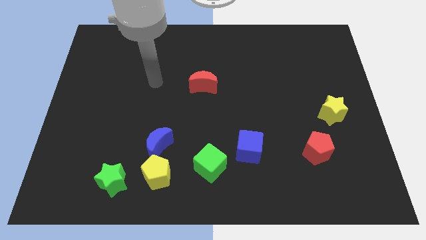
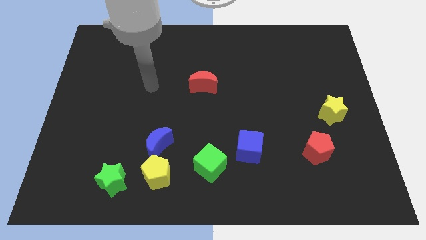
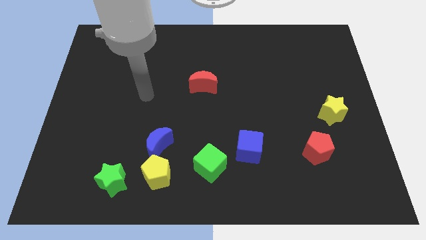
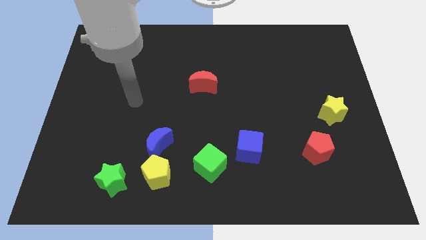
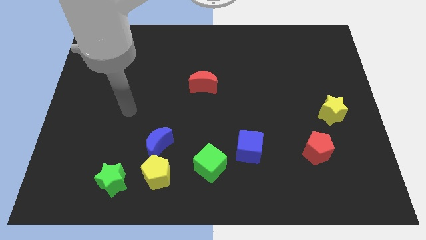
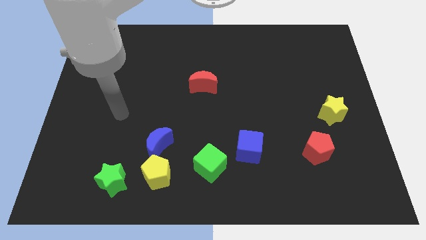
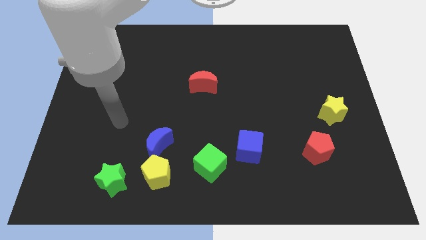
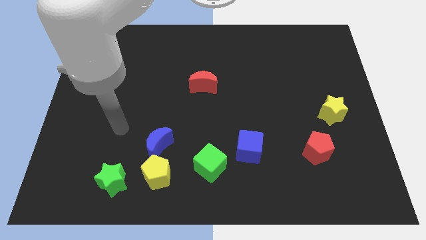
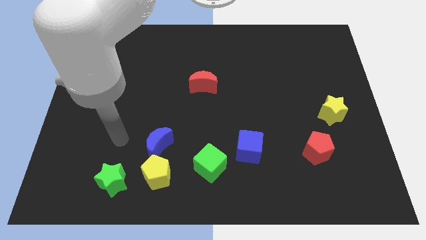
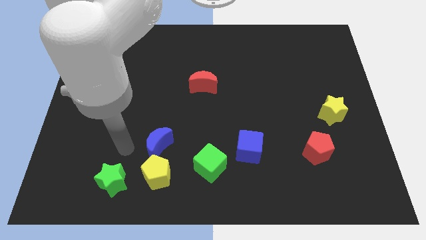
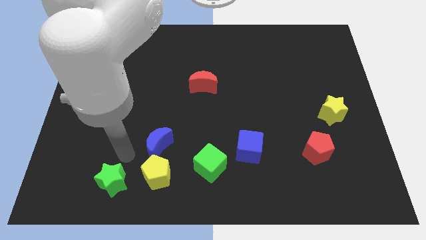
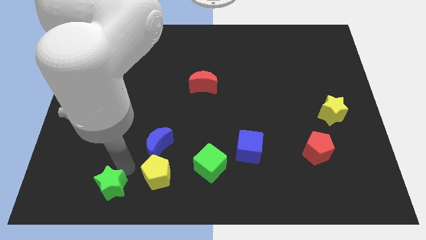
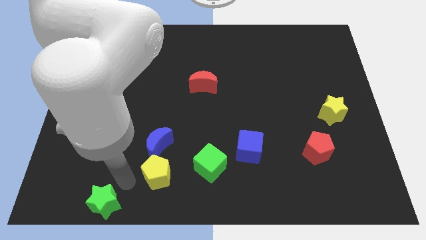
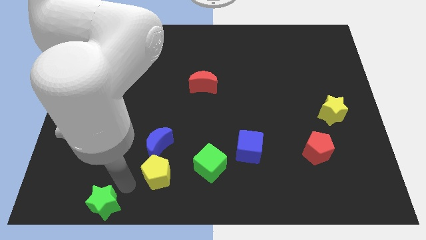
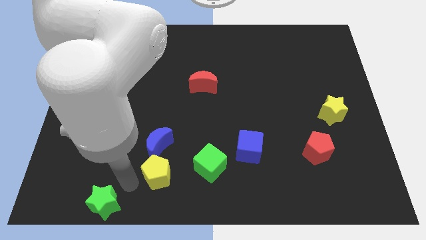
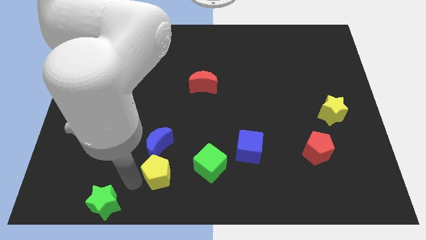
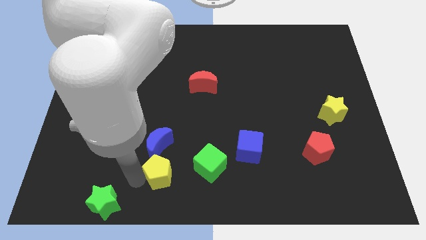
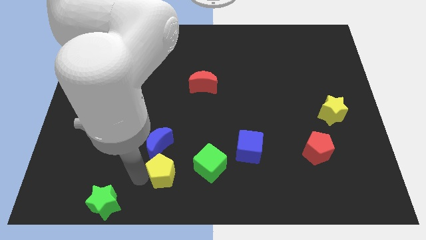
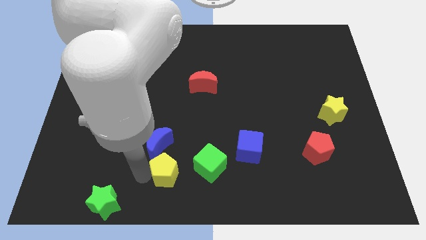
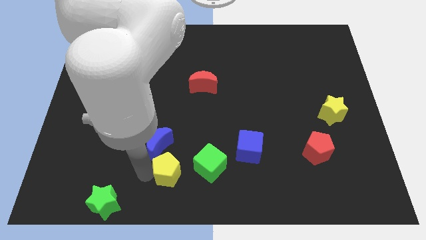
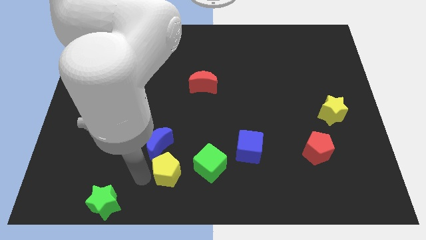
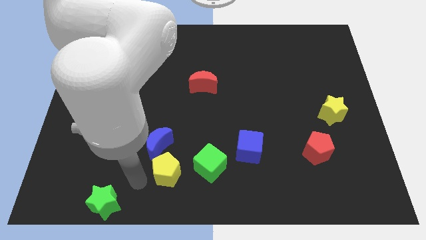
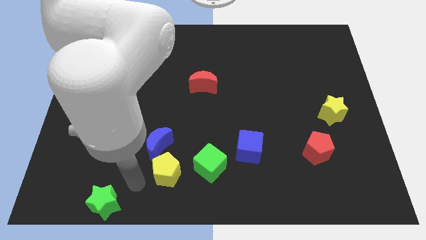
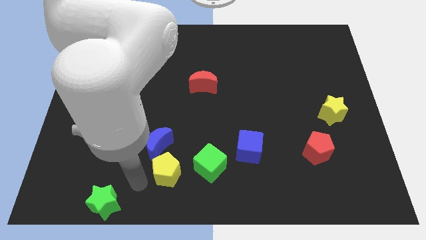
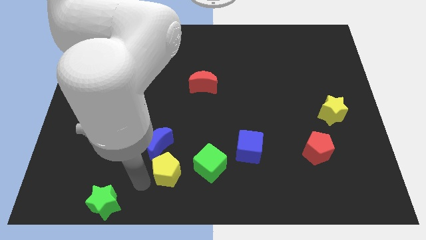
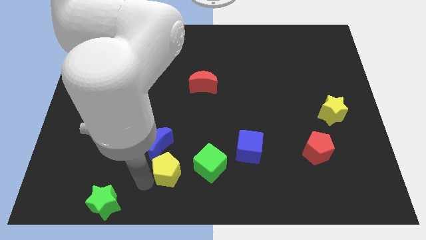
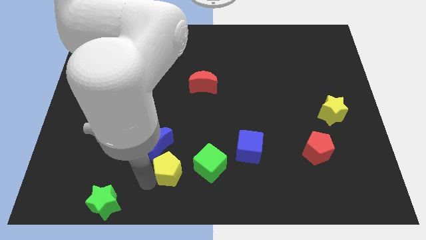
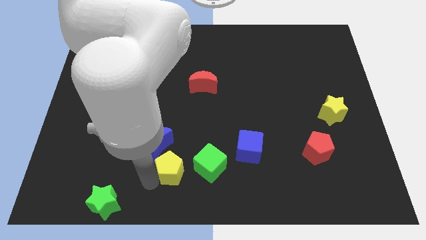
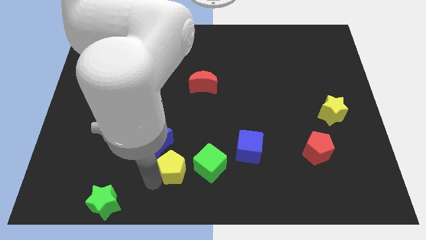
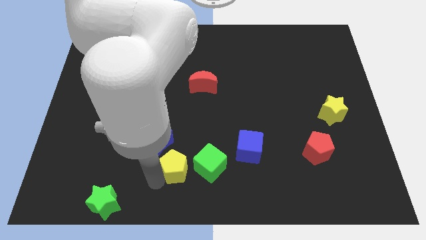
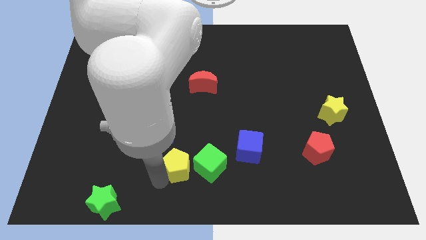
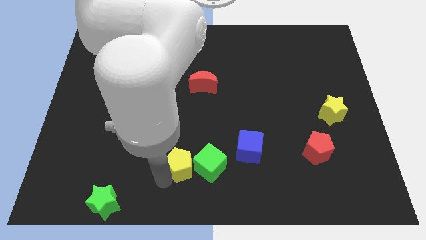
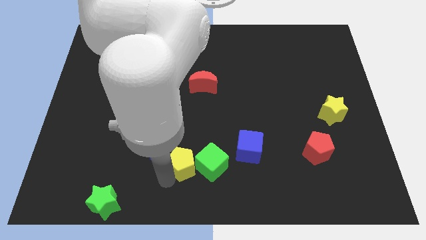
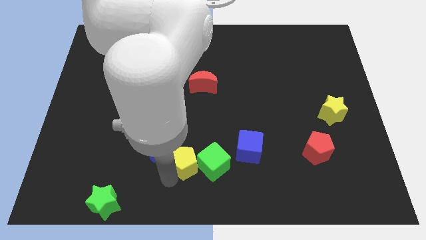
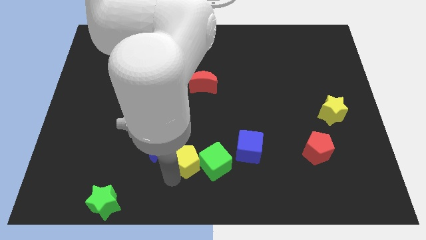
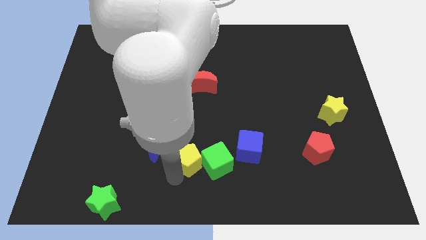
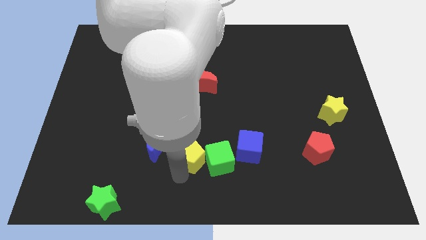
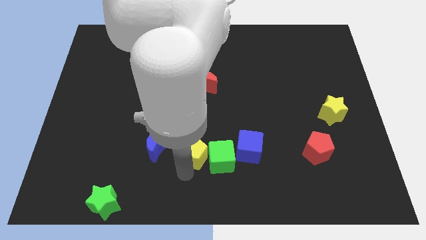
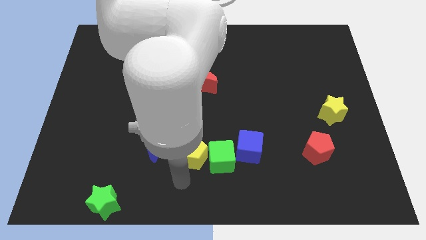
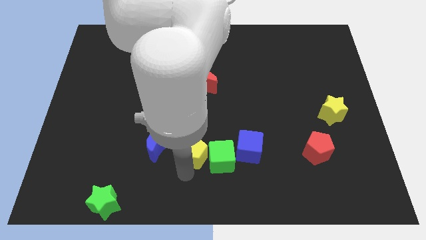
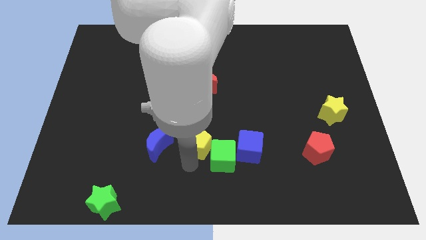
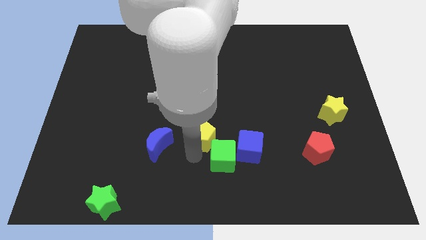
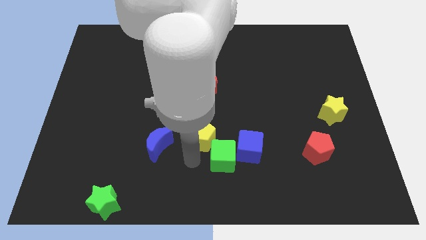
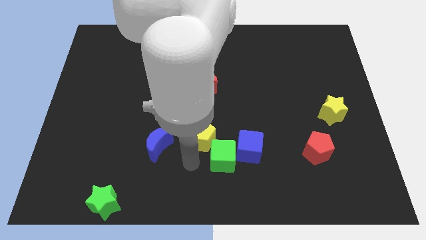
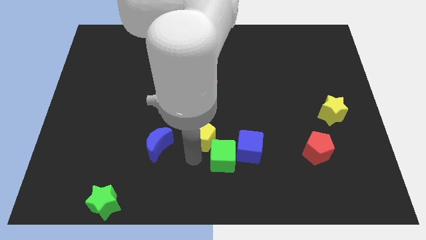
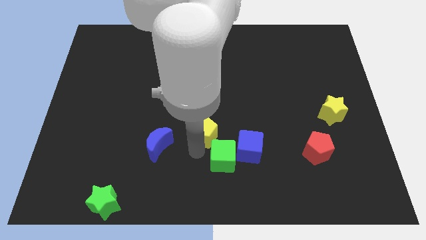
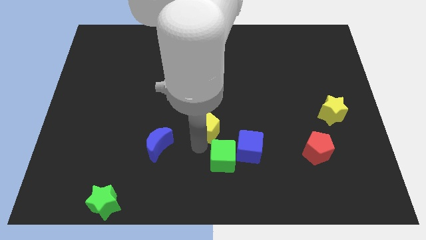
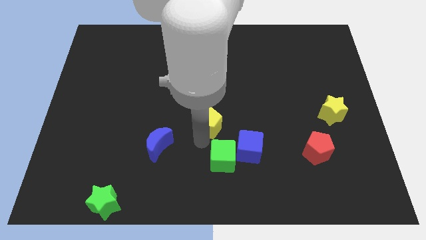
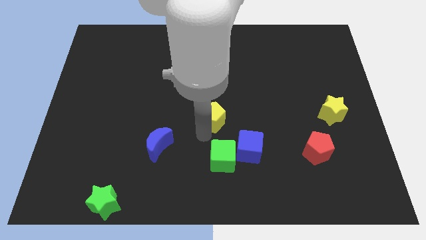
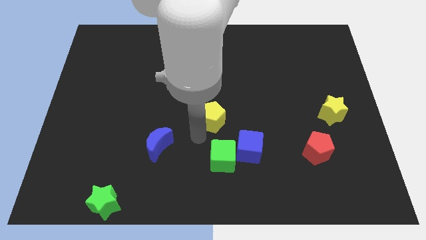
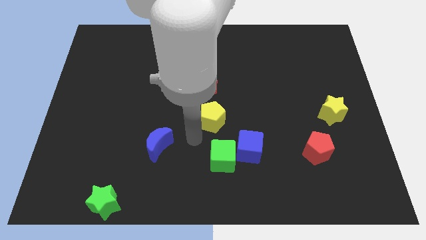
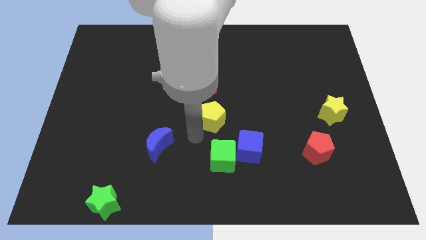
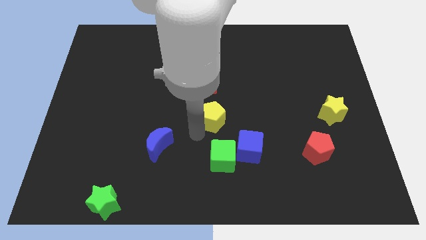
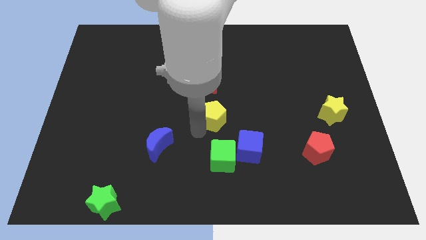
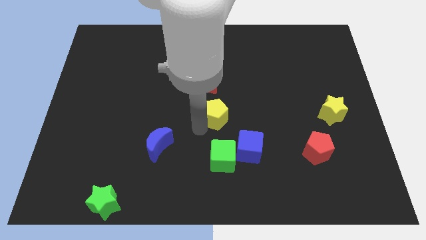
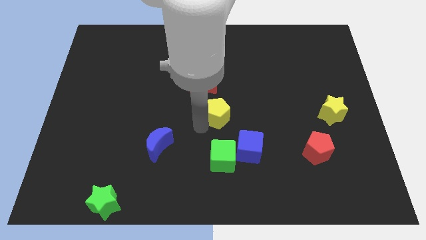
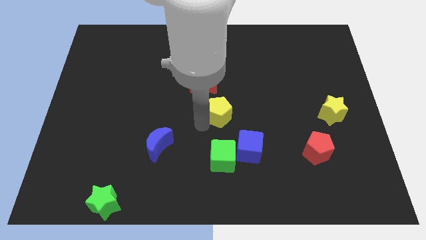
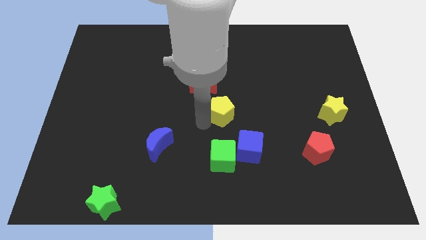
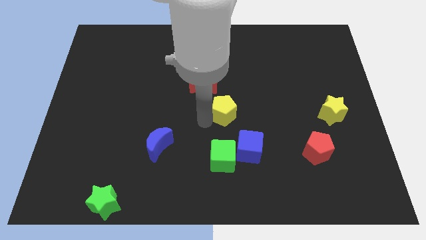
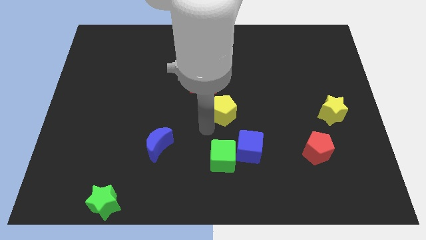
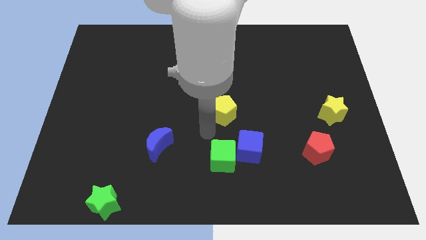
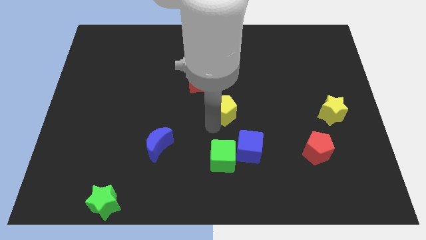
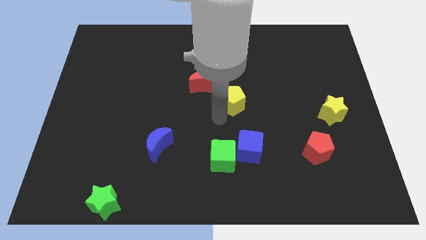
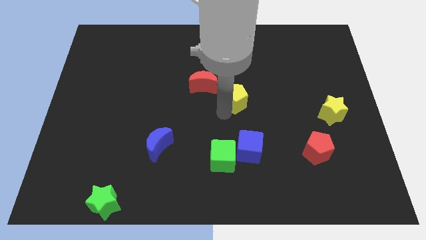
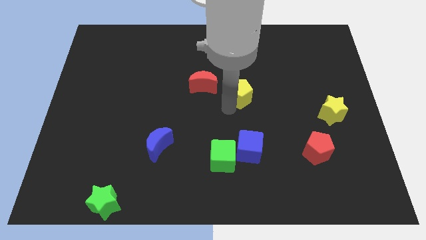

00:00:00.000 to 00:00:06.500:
push the yellow pentagon just right of the red moon

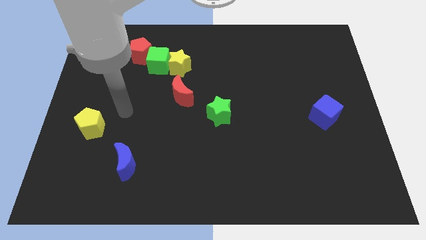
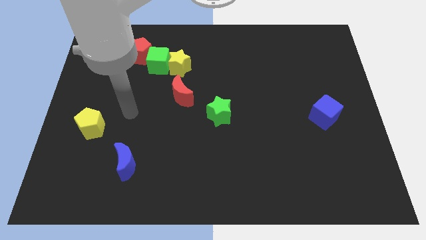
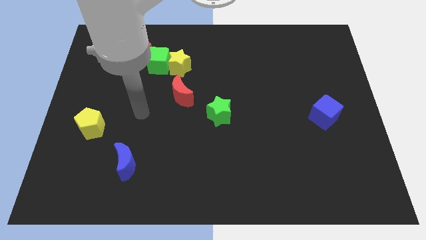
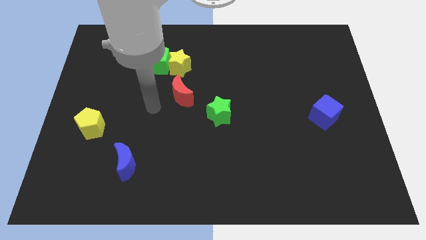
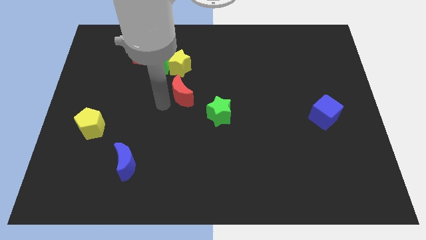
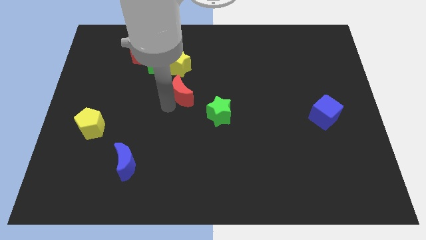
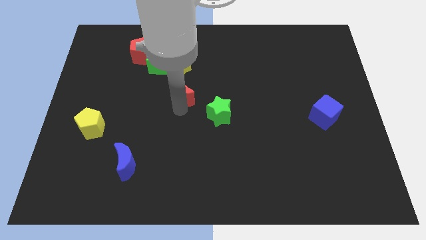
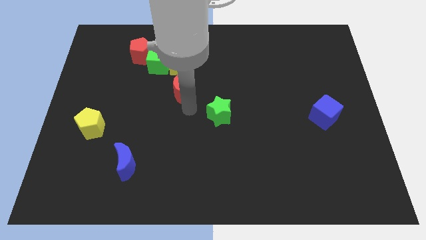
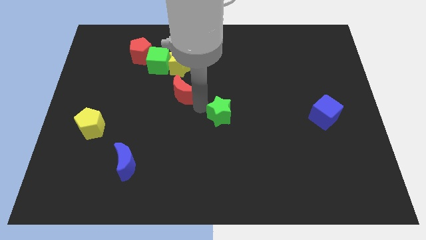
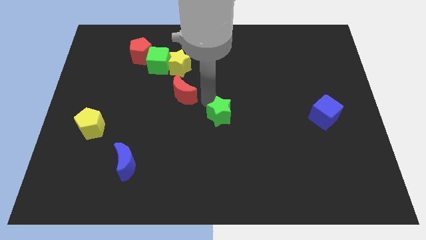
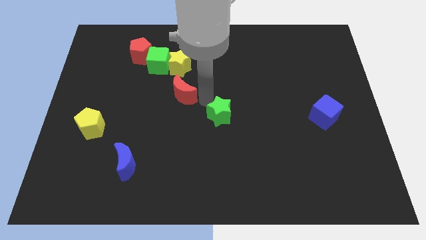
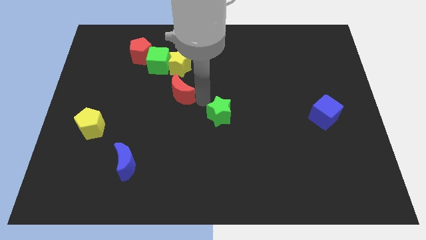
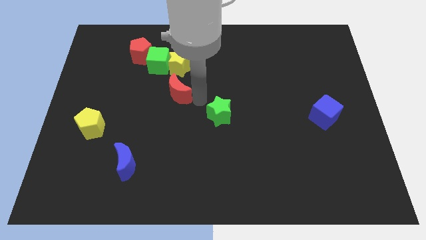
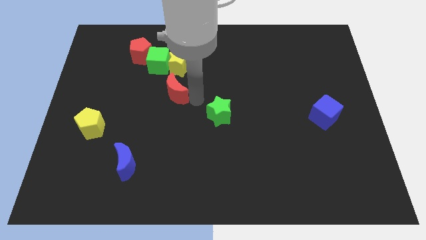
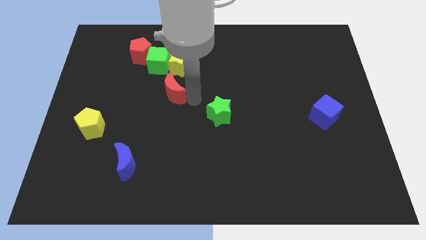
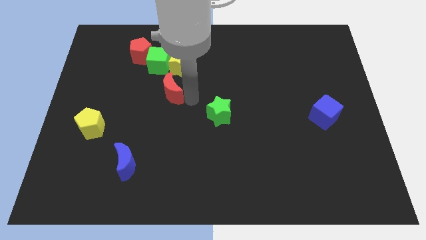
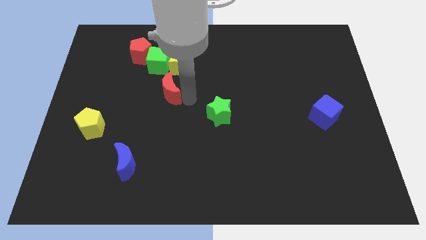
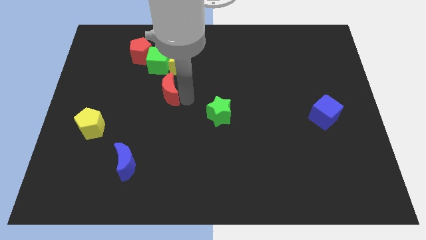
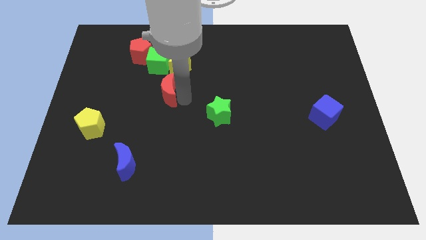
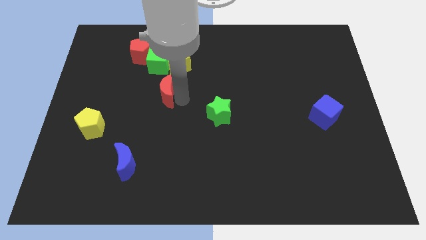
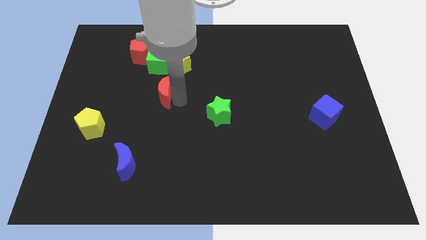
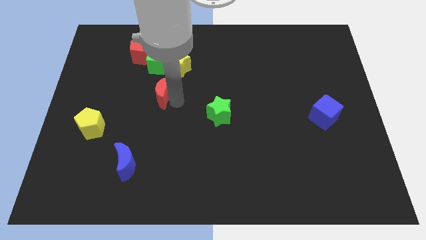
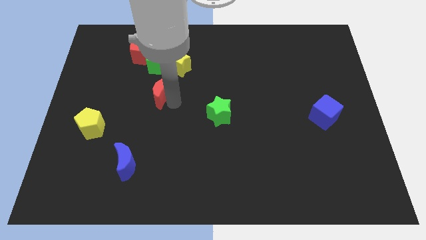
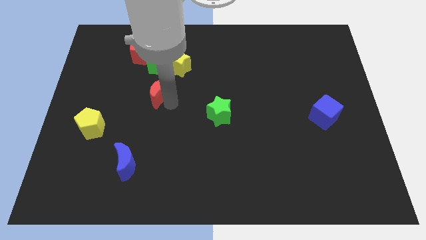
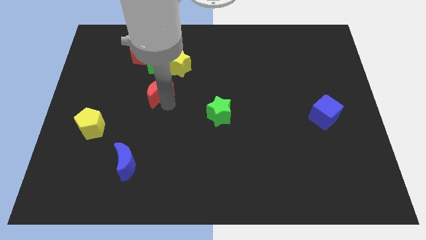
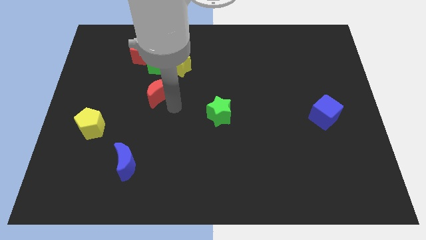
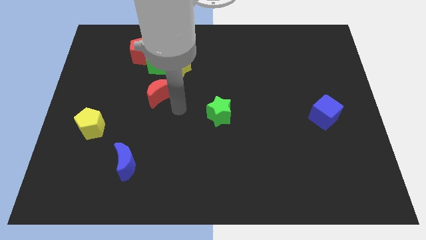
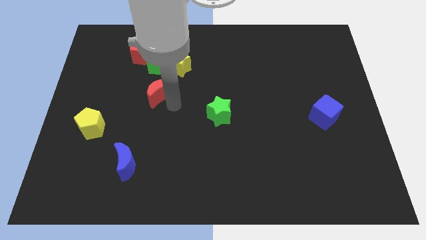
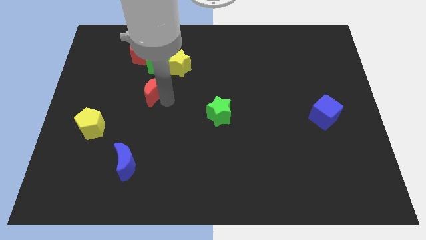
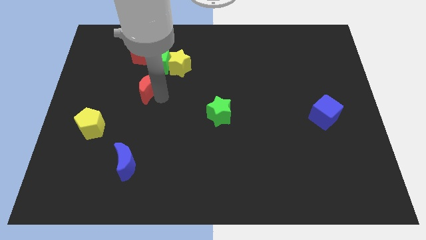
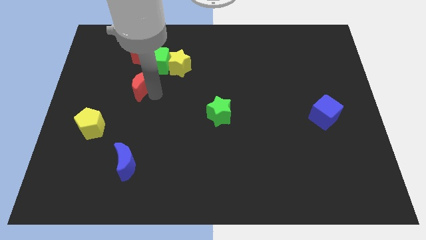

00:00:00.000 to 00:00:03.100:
put the red moon to the bottom left of the green cube
